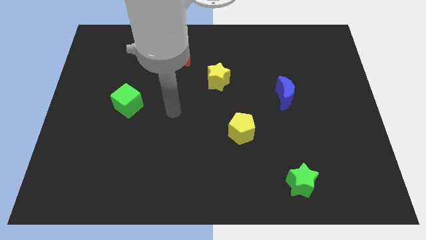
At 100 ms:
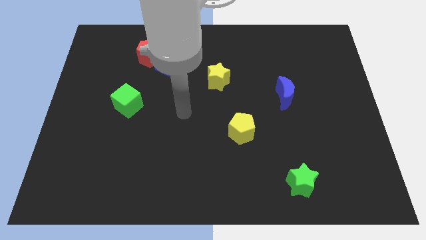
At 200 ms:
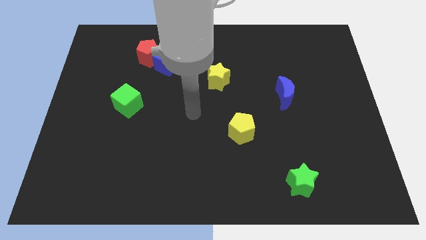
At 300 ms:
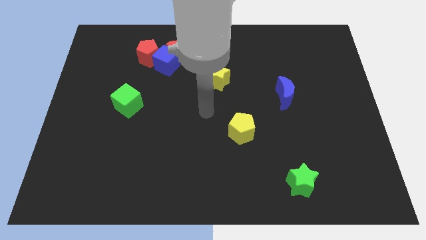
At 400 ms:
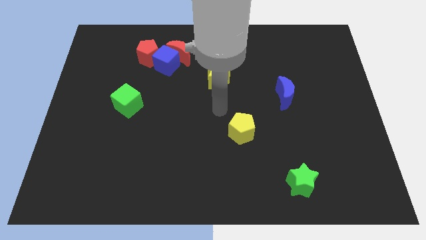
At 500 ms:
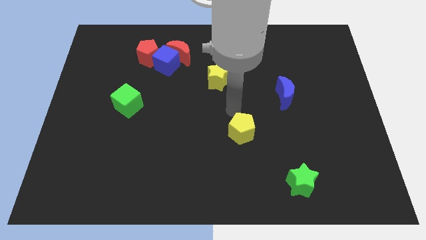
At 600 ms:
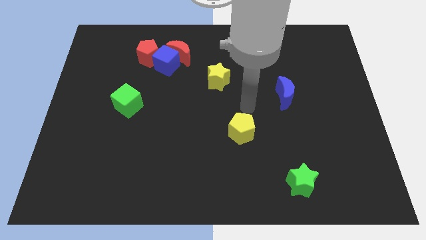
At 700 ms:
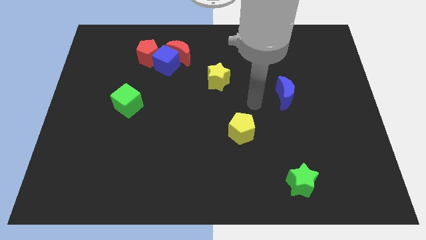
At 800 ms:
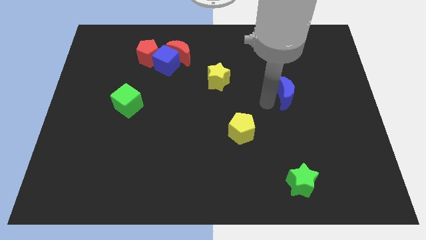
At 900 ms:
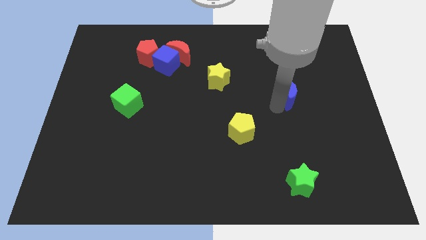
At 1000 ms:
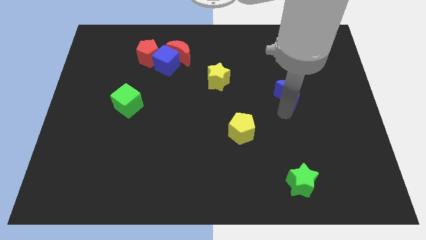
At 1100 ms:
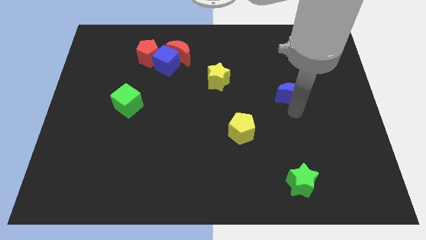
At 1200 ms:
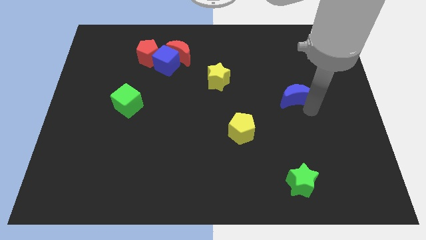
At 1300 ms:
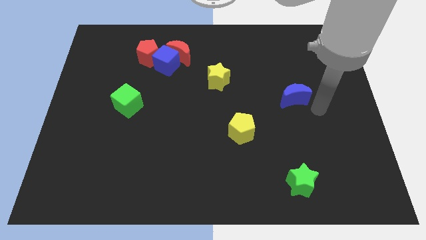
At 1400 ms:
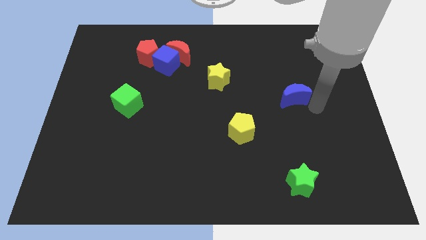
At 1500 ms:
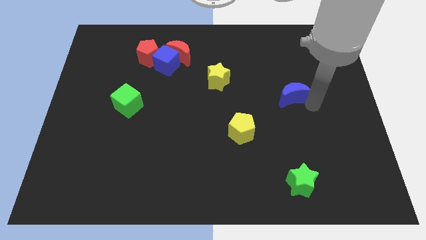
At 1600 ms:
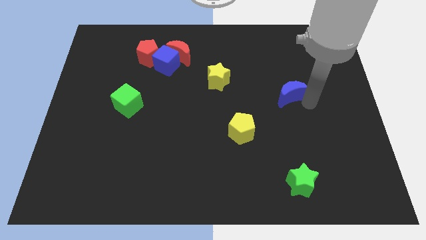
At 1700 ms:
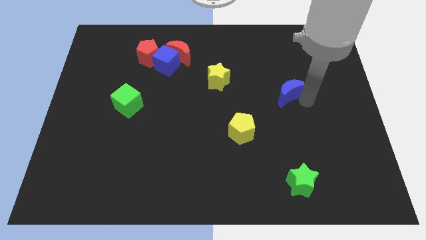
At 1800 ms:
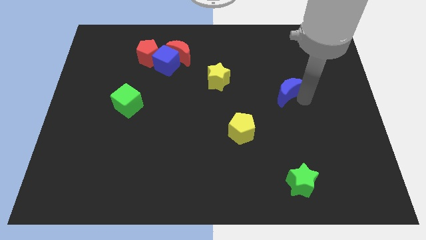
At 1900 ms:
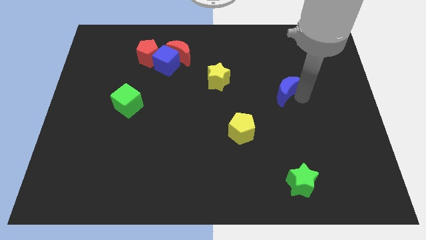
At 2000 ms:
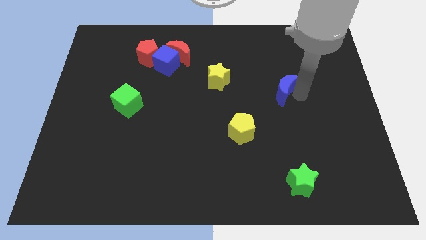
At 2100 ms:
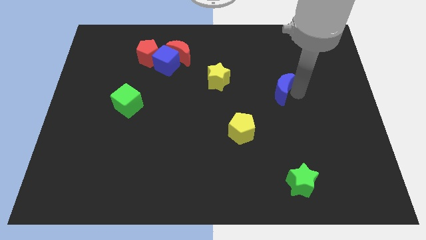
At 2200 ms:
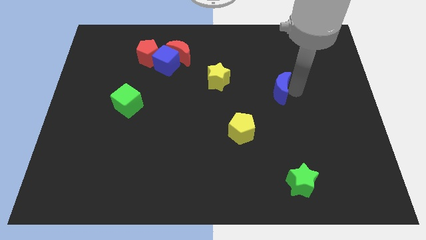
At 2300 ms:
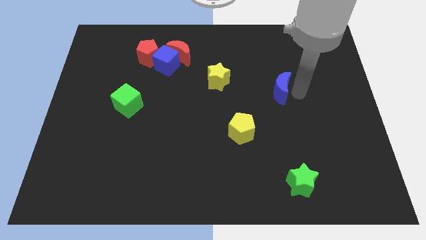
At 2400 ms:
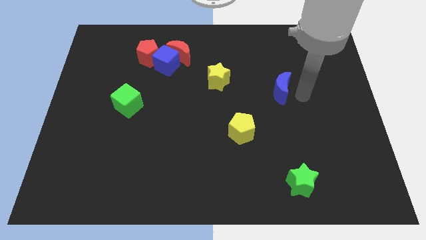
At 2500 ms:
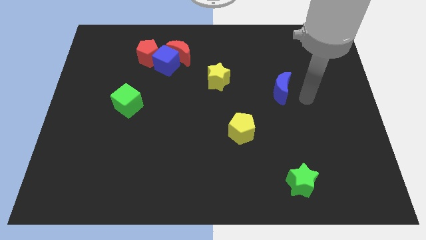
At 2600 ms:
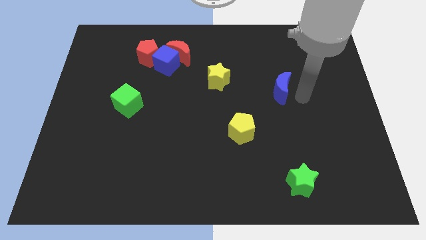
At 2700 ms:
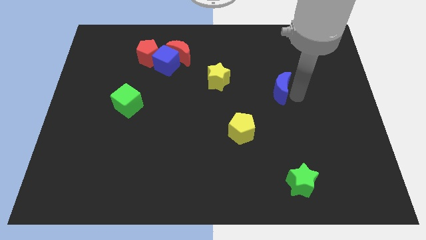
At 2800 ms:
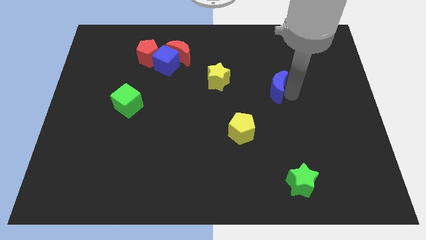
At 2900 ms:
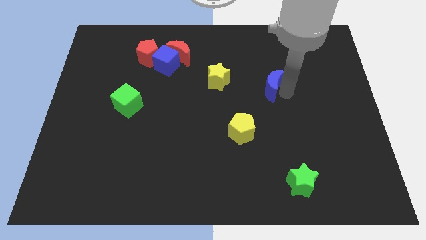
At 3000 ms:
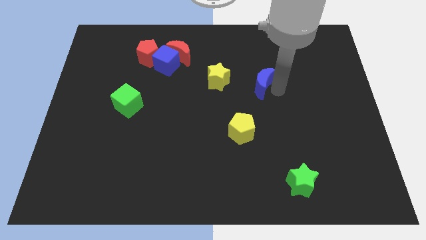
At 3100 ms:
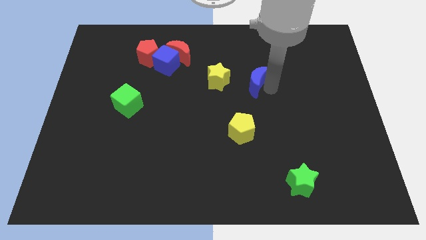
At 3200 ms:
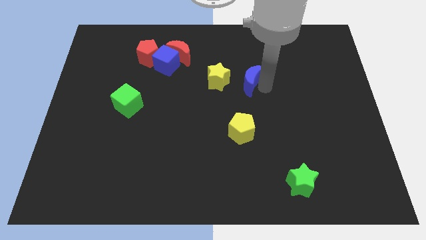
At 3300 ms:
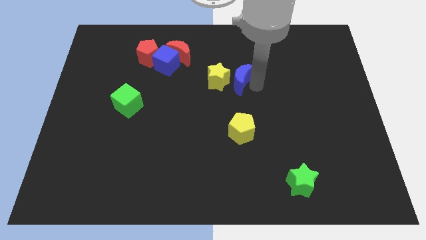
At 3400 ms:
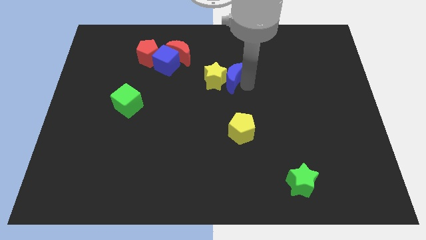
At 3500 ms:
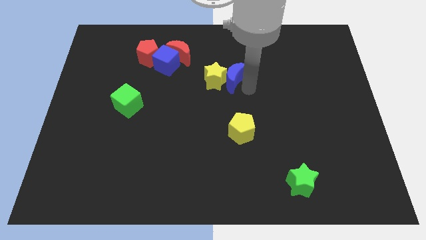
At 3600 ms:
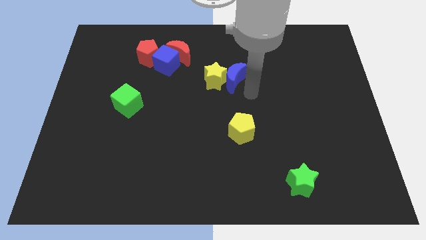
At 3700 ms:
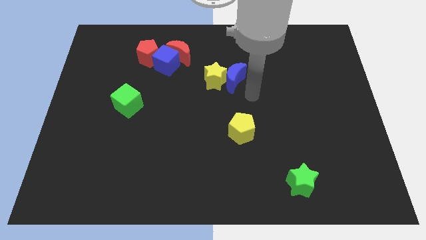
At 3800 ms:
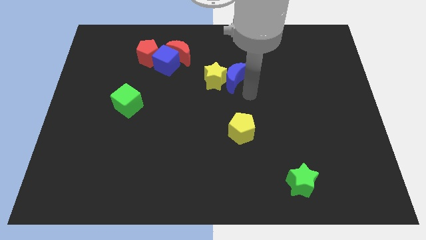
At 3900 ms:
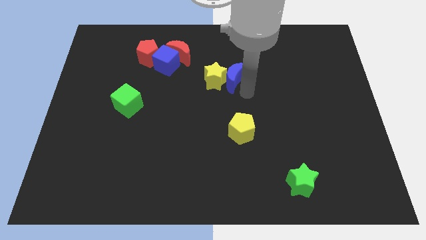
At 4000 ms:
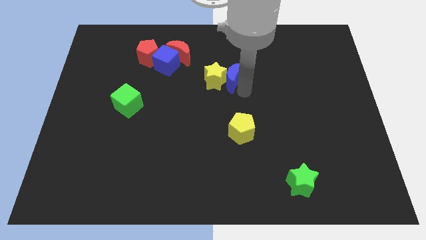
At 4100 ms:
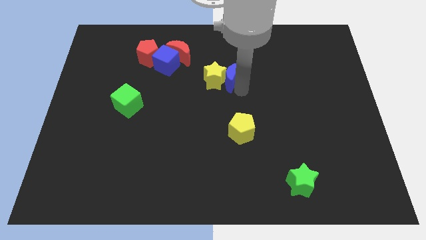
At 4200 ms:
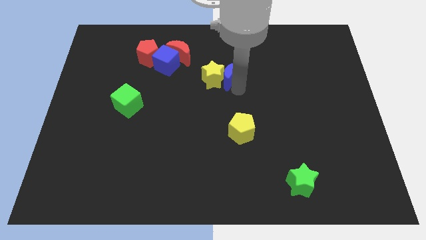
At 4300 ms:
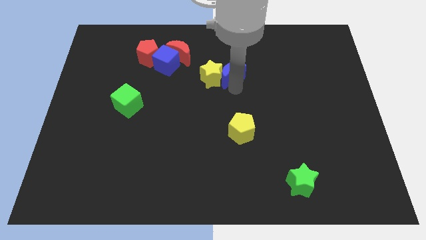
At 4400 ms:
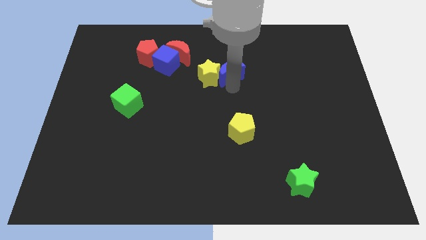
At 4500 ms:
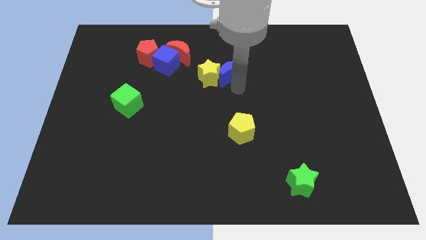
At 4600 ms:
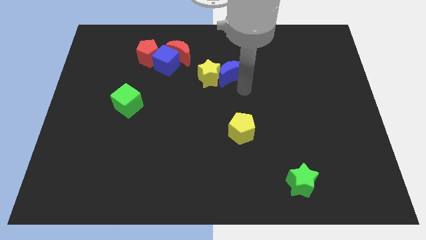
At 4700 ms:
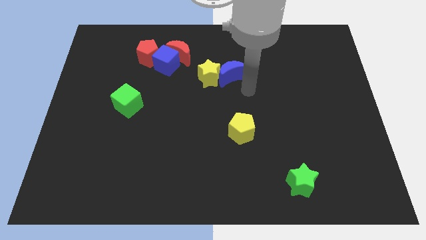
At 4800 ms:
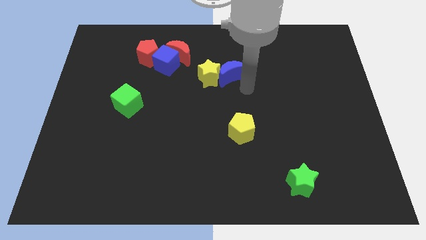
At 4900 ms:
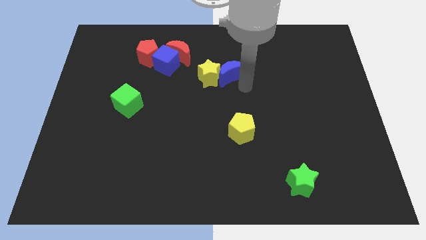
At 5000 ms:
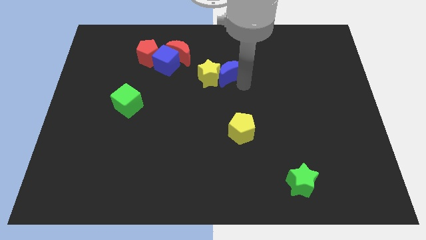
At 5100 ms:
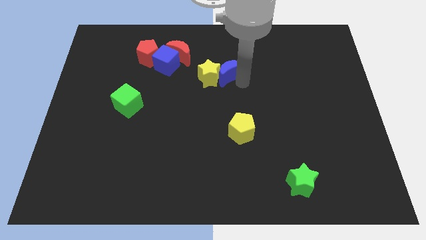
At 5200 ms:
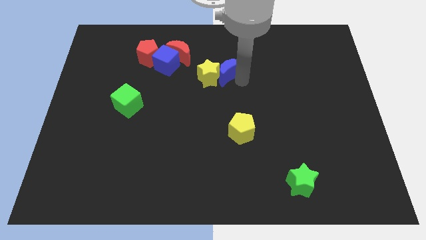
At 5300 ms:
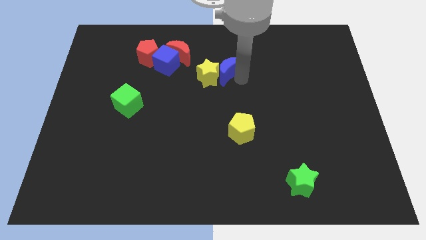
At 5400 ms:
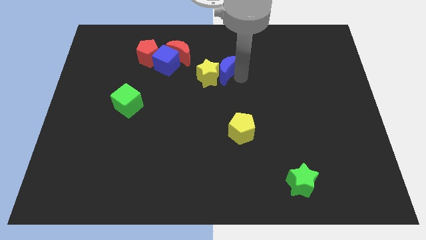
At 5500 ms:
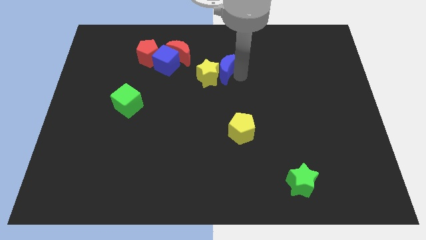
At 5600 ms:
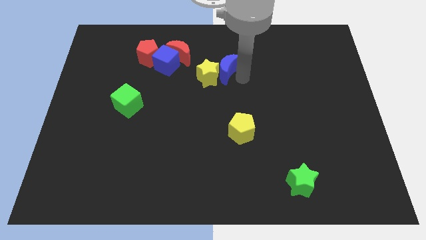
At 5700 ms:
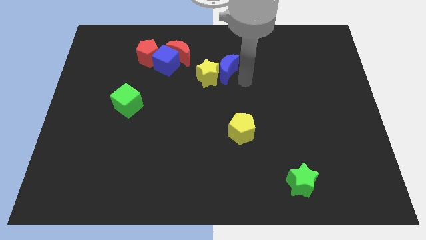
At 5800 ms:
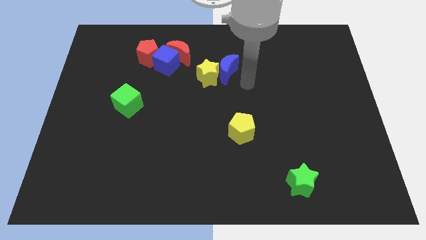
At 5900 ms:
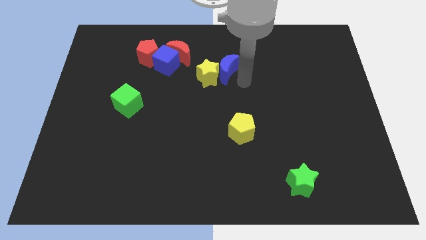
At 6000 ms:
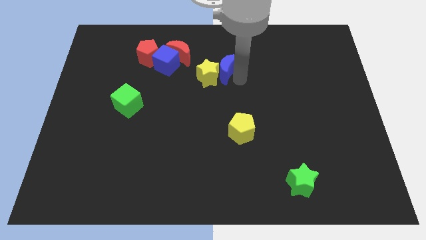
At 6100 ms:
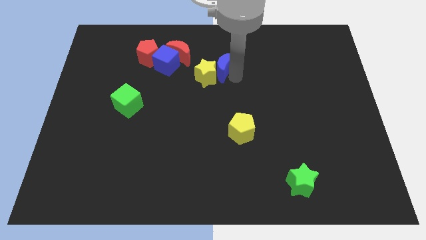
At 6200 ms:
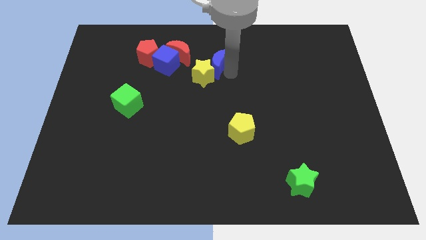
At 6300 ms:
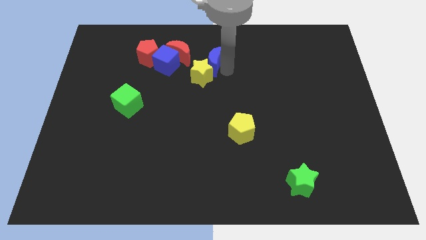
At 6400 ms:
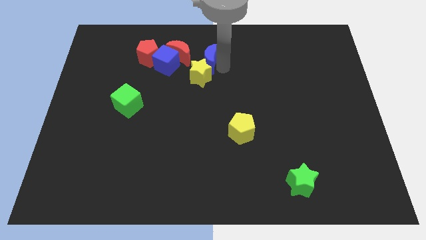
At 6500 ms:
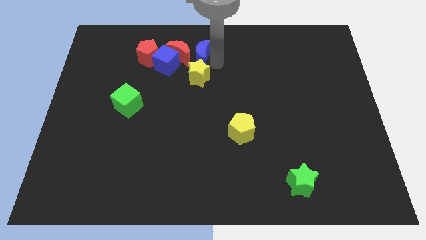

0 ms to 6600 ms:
move the blue moon next to the red moon

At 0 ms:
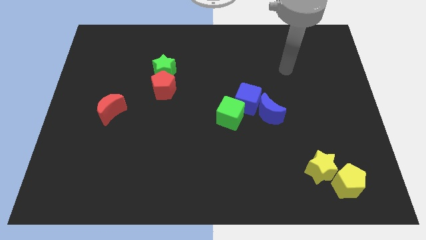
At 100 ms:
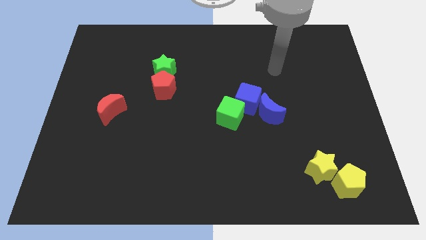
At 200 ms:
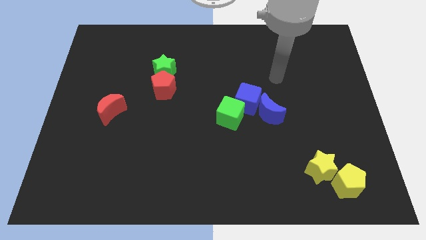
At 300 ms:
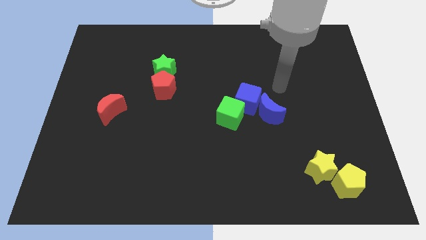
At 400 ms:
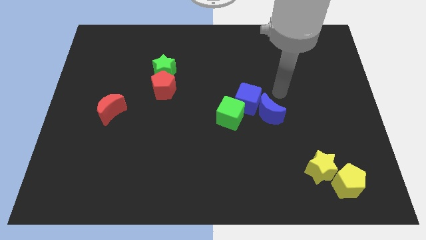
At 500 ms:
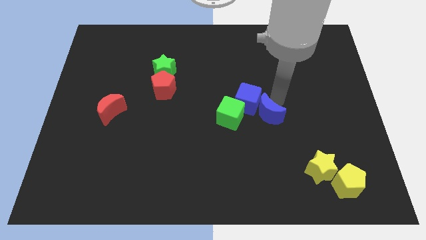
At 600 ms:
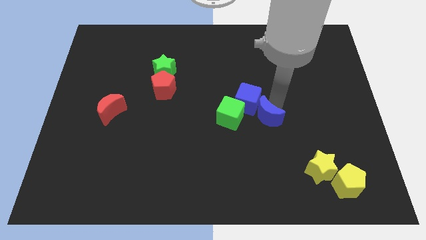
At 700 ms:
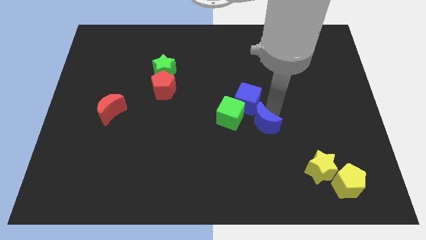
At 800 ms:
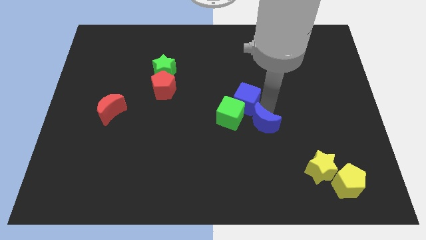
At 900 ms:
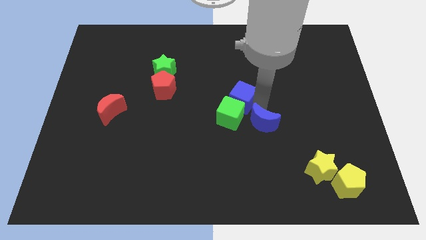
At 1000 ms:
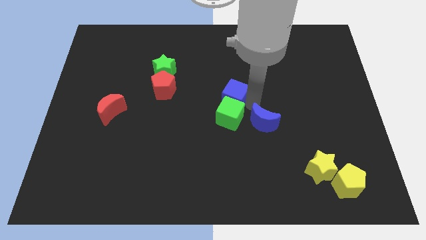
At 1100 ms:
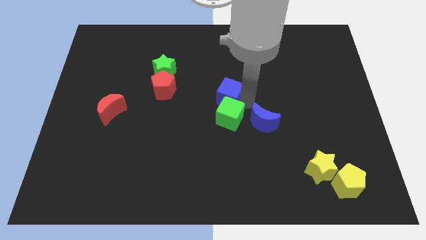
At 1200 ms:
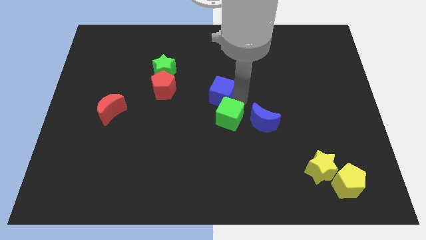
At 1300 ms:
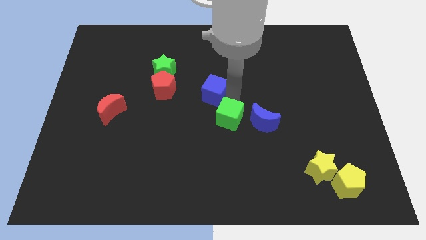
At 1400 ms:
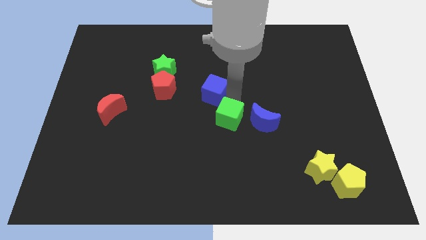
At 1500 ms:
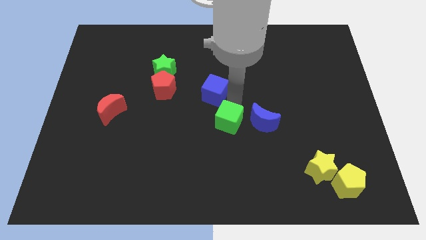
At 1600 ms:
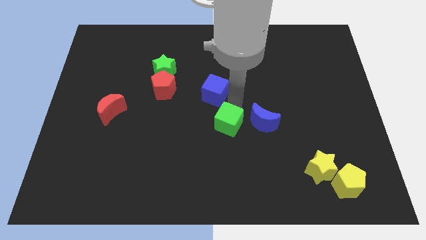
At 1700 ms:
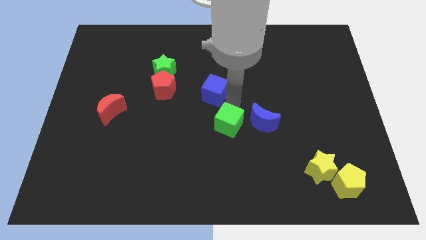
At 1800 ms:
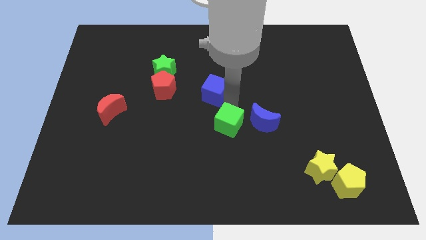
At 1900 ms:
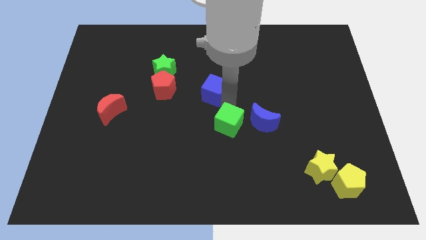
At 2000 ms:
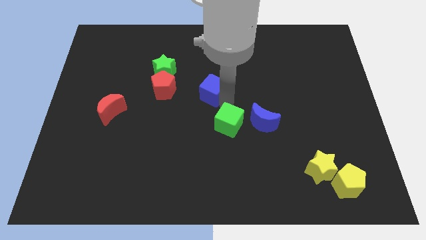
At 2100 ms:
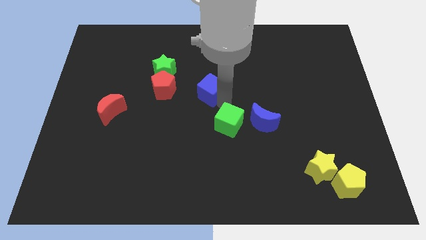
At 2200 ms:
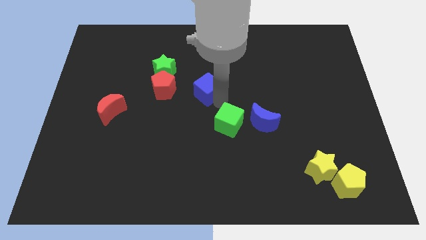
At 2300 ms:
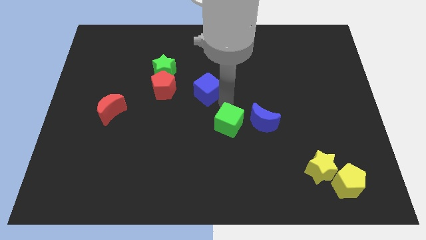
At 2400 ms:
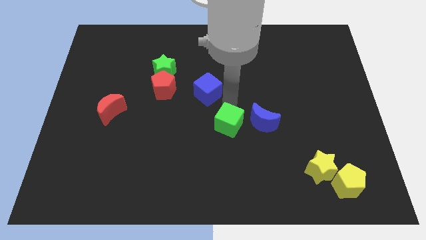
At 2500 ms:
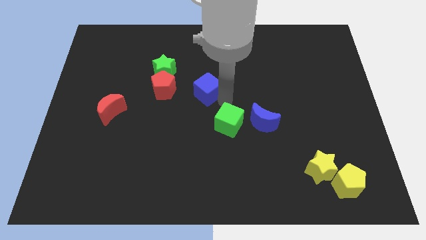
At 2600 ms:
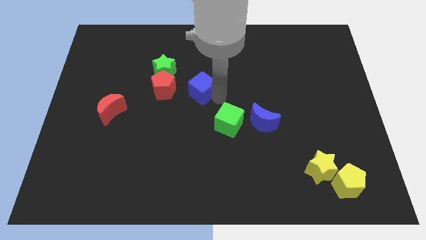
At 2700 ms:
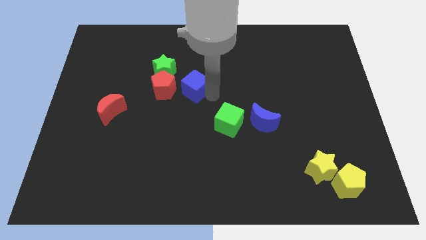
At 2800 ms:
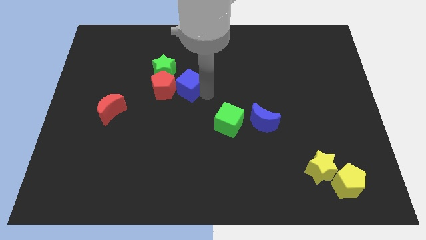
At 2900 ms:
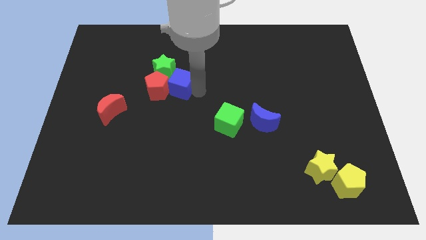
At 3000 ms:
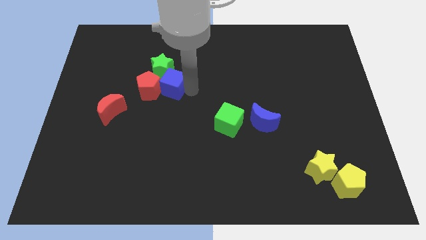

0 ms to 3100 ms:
put the blue cube close to the green star
